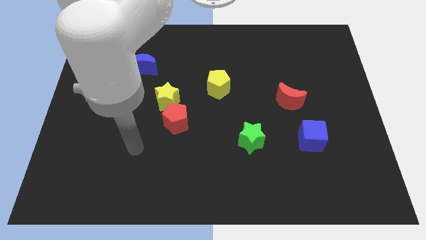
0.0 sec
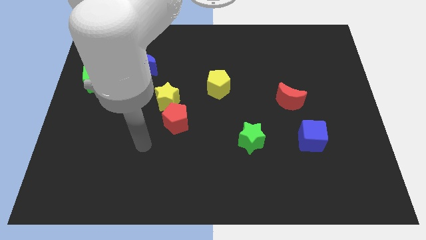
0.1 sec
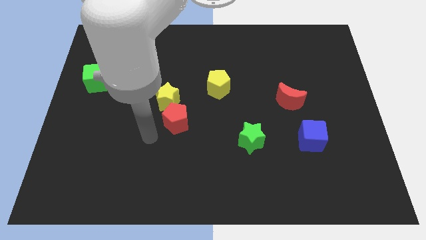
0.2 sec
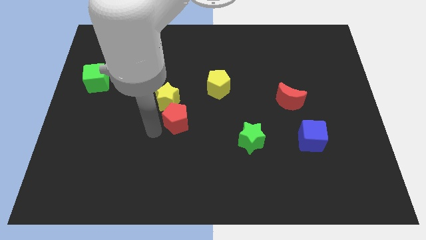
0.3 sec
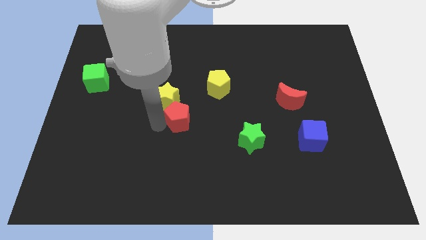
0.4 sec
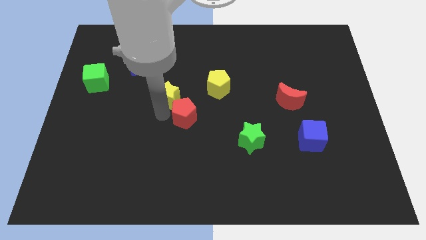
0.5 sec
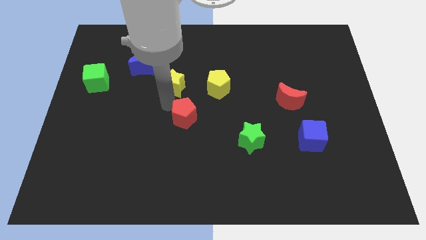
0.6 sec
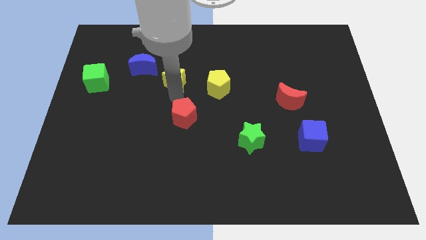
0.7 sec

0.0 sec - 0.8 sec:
move the red pentagon away from the yellow star

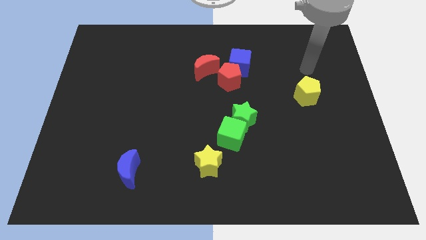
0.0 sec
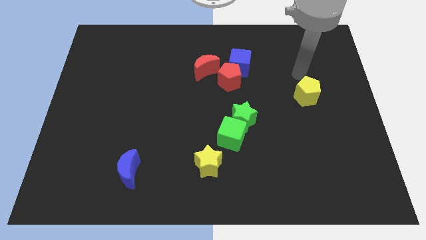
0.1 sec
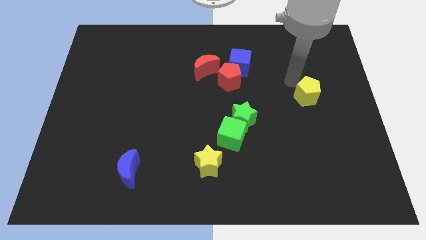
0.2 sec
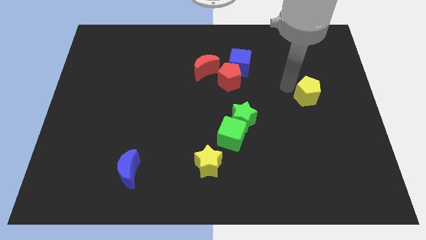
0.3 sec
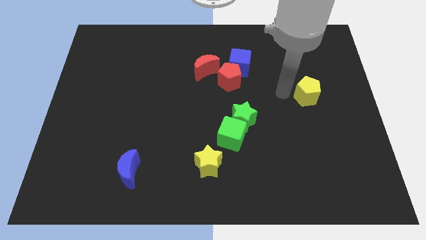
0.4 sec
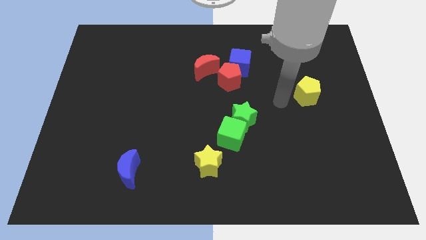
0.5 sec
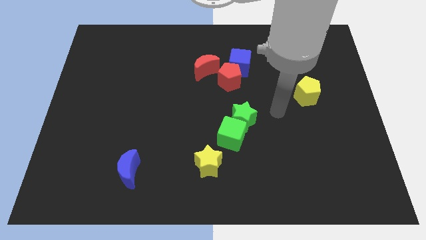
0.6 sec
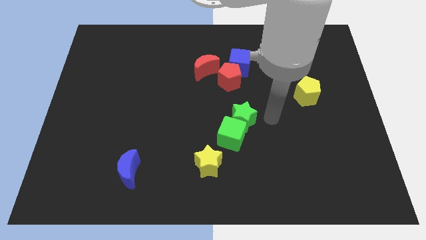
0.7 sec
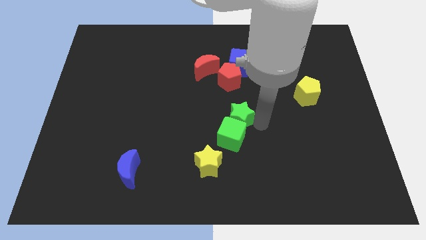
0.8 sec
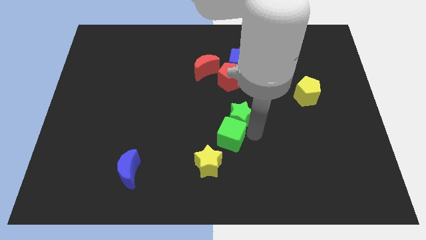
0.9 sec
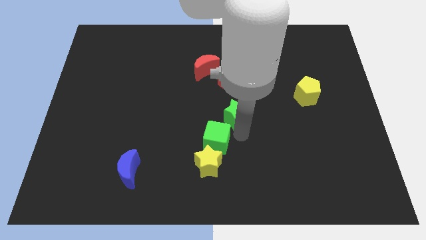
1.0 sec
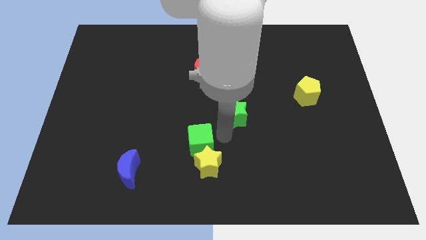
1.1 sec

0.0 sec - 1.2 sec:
separate the green star from the green cube

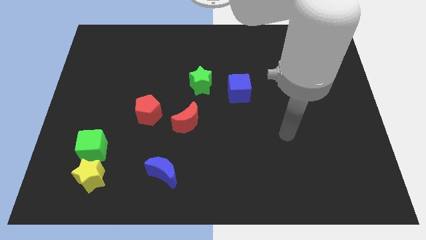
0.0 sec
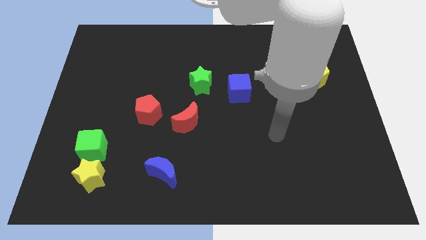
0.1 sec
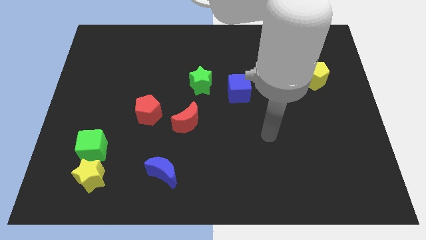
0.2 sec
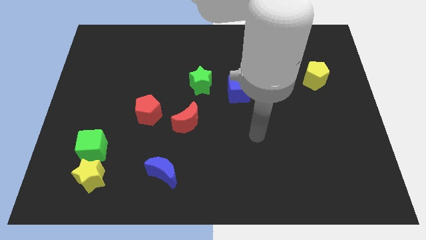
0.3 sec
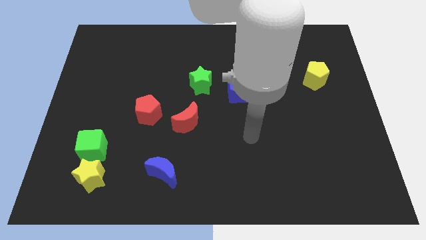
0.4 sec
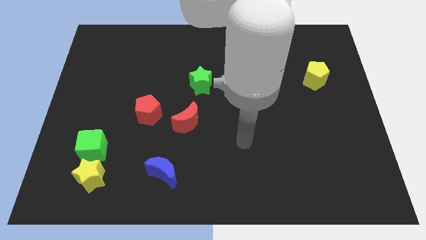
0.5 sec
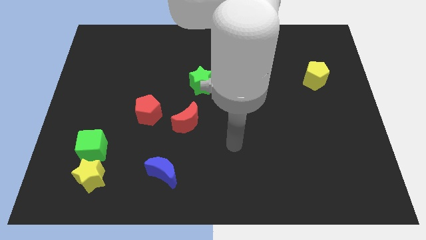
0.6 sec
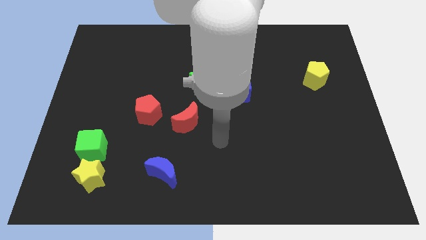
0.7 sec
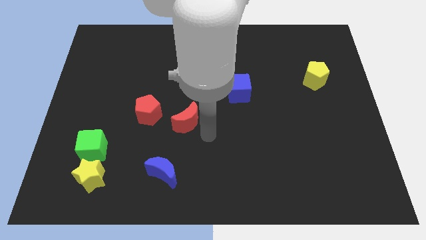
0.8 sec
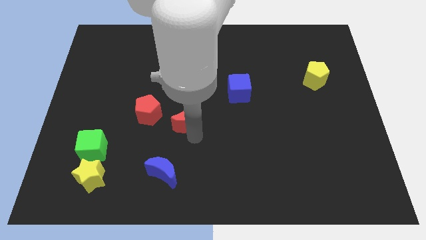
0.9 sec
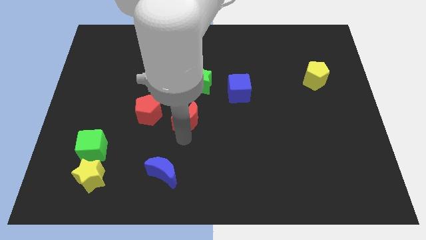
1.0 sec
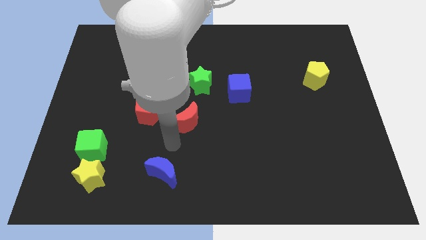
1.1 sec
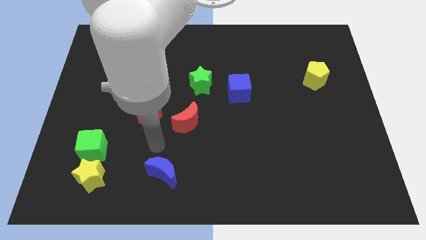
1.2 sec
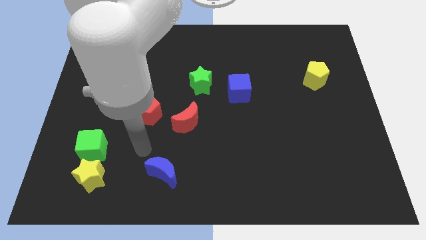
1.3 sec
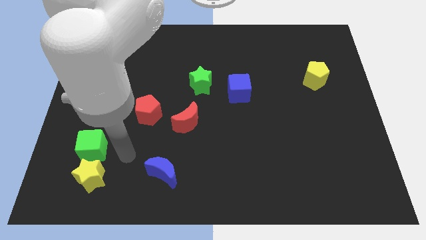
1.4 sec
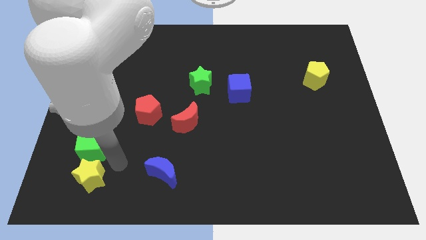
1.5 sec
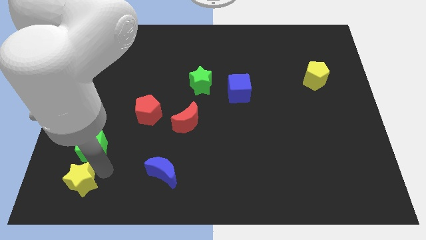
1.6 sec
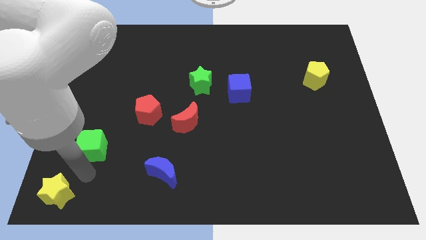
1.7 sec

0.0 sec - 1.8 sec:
separate the green cube from the yellow star

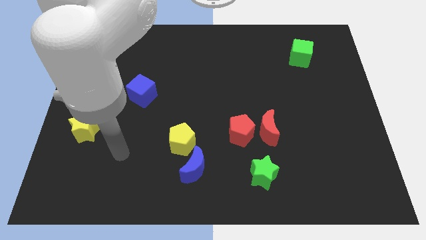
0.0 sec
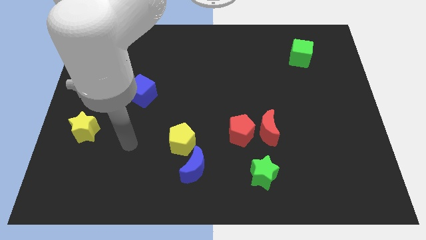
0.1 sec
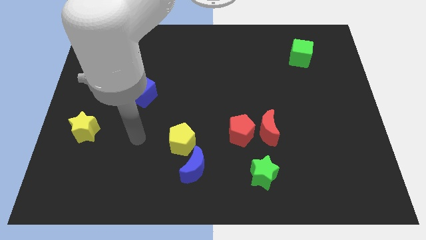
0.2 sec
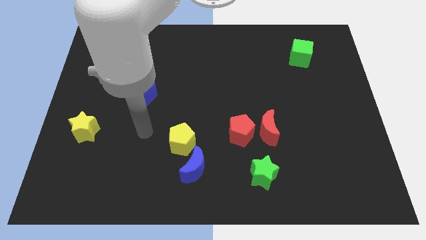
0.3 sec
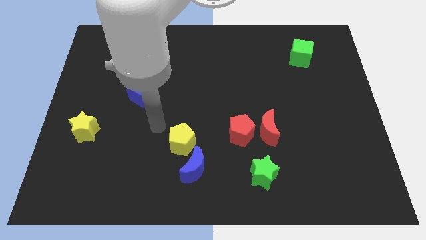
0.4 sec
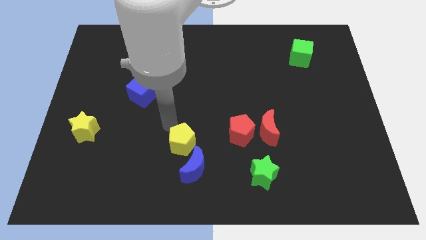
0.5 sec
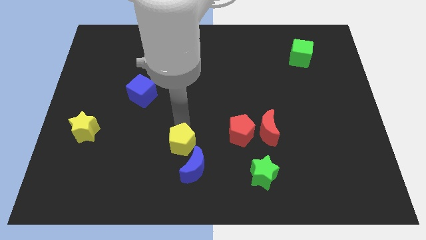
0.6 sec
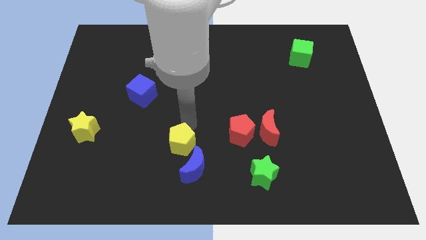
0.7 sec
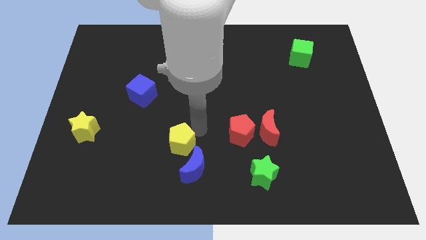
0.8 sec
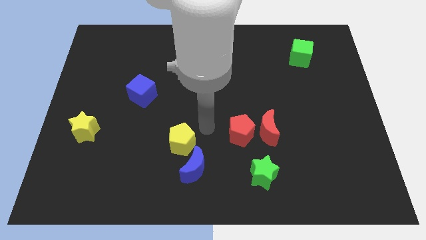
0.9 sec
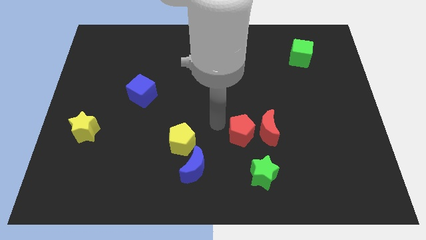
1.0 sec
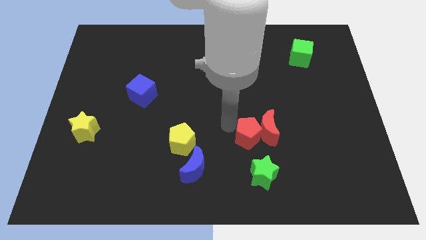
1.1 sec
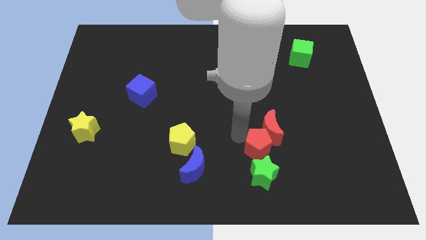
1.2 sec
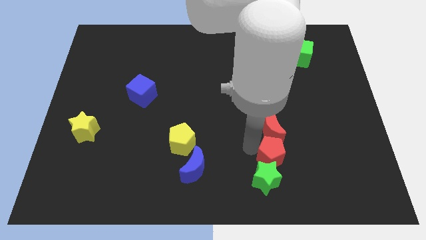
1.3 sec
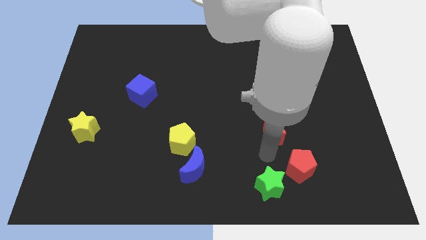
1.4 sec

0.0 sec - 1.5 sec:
separate the red moon from the red pentagon

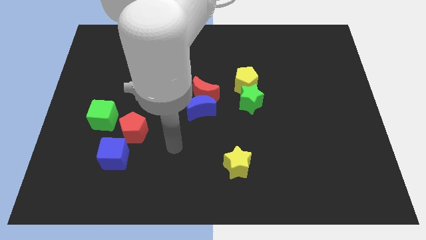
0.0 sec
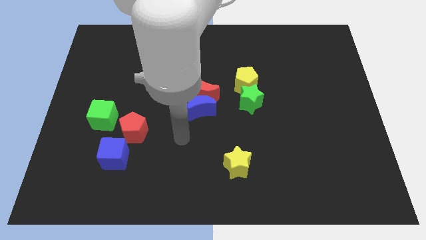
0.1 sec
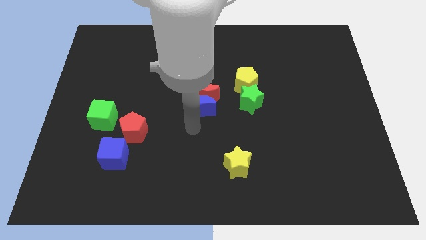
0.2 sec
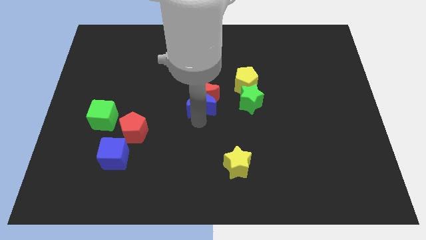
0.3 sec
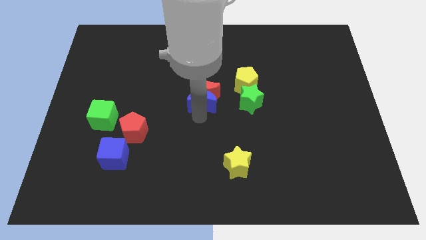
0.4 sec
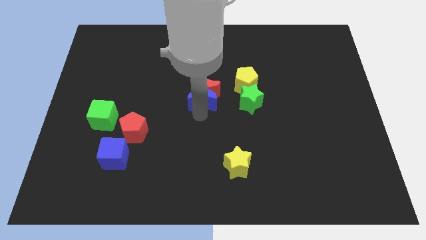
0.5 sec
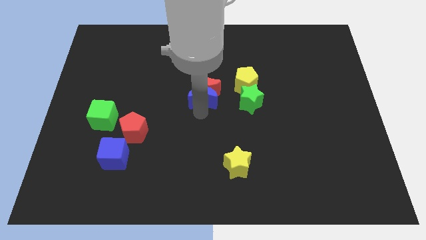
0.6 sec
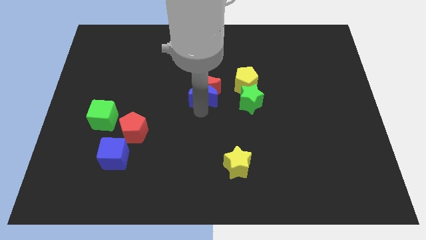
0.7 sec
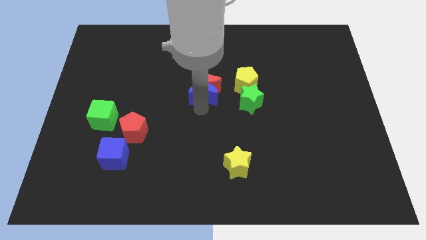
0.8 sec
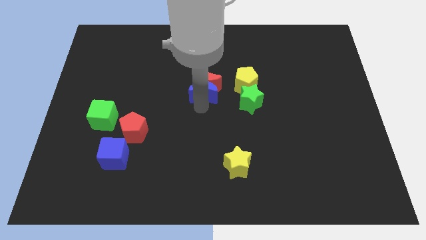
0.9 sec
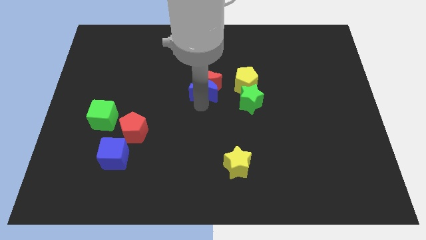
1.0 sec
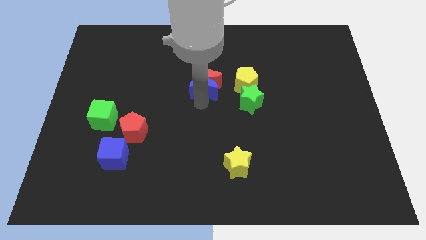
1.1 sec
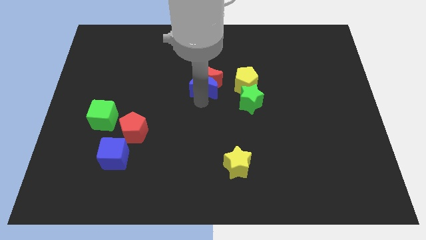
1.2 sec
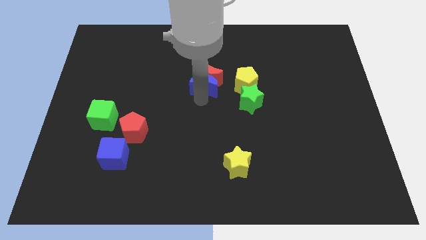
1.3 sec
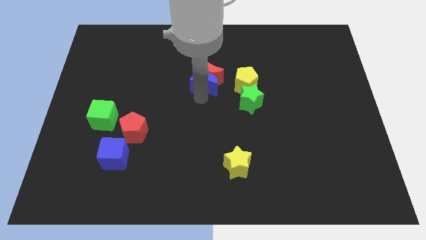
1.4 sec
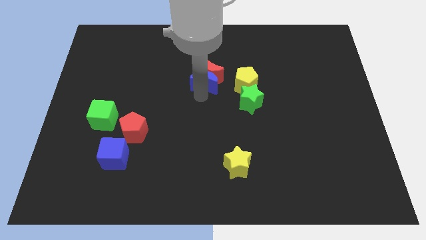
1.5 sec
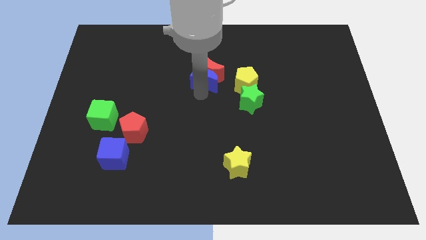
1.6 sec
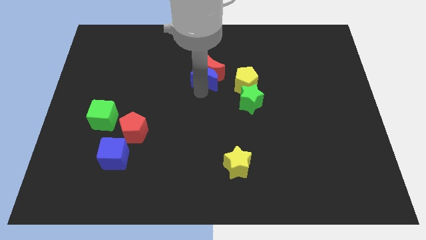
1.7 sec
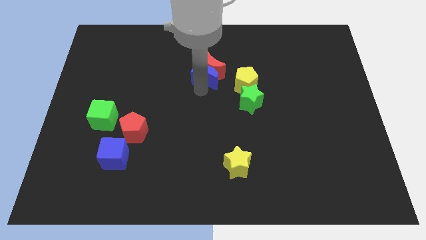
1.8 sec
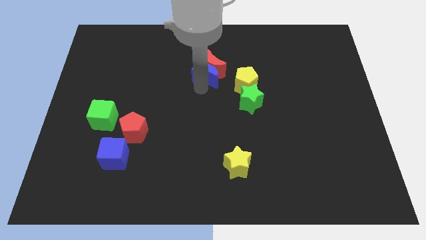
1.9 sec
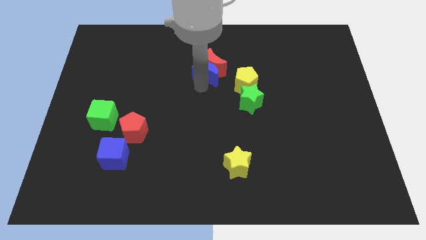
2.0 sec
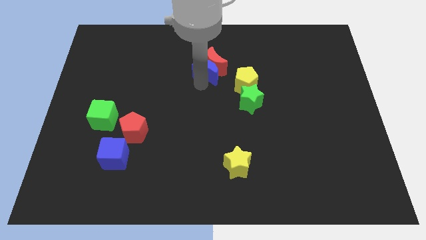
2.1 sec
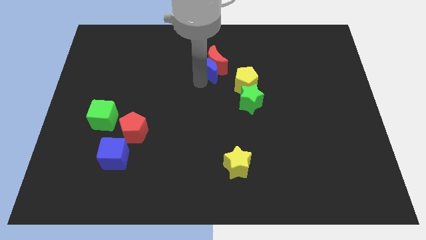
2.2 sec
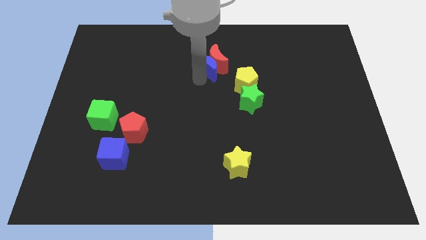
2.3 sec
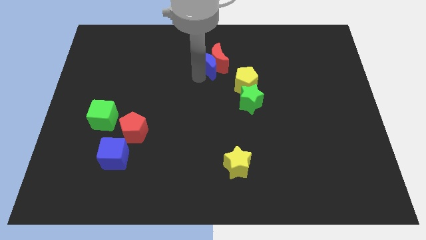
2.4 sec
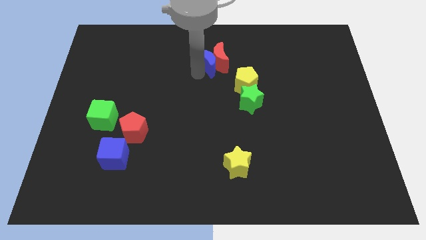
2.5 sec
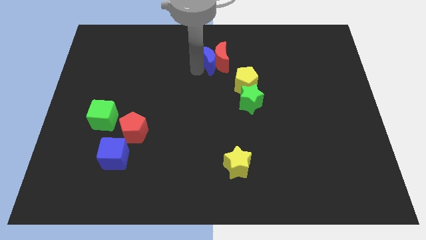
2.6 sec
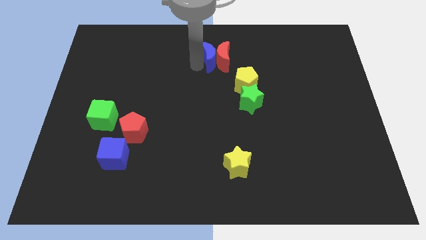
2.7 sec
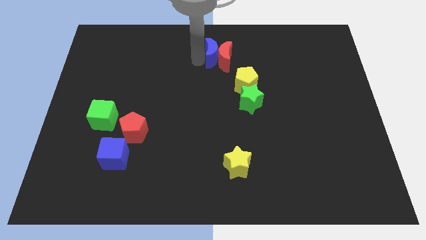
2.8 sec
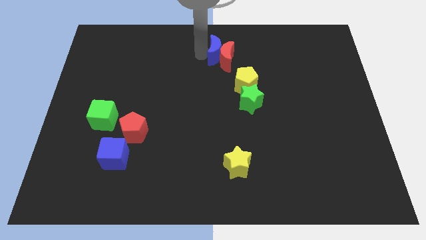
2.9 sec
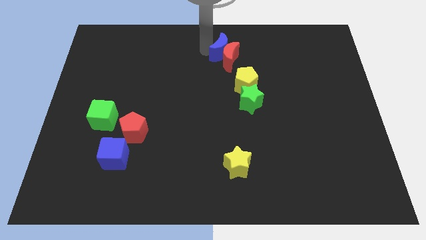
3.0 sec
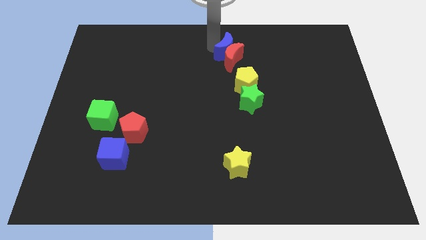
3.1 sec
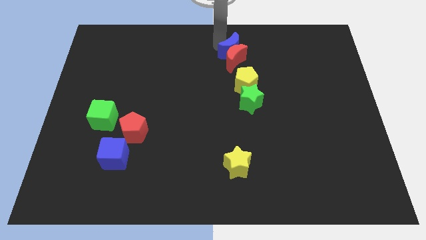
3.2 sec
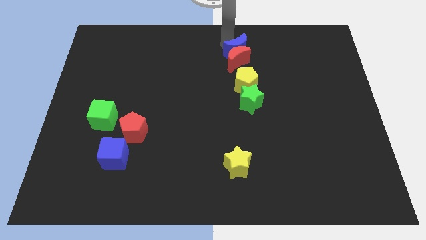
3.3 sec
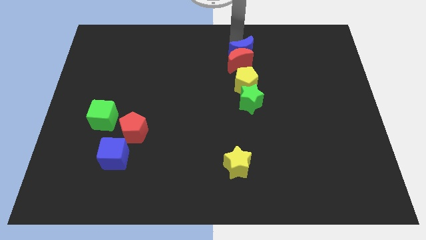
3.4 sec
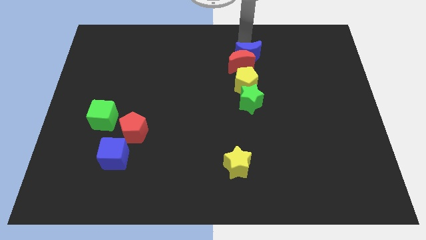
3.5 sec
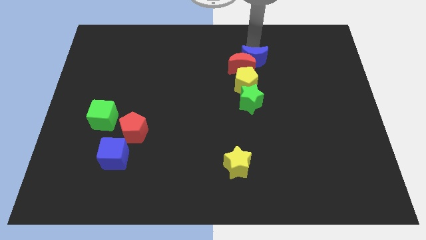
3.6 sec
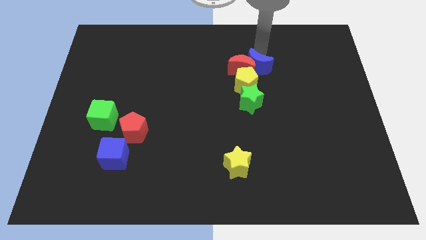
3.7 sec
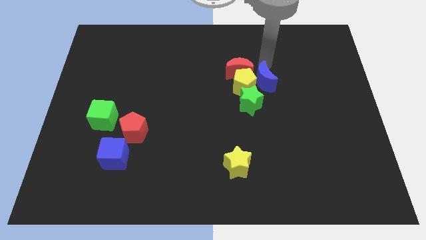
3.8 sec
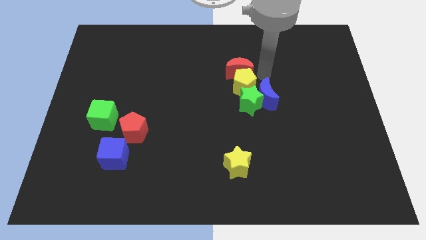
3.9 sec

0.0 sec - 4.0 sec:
move the red moon away from the blue moon
